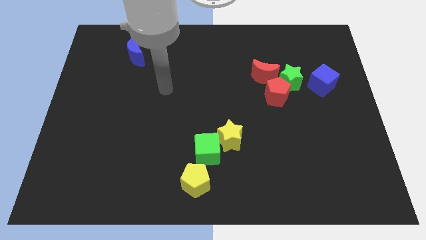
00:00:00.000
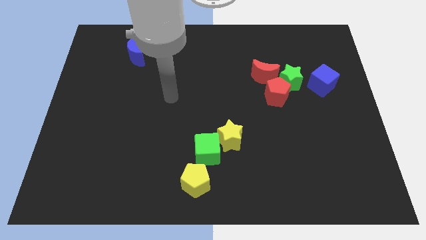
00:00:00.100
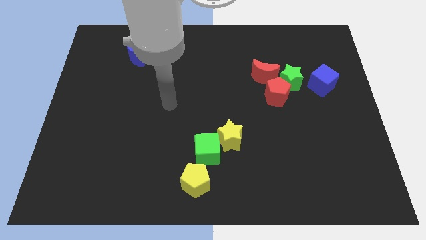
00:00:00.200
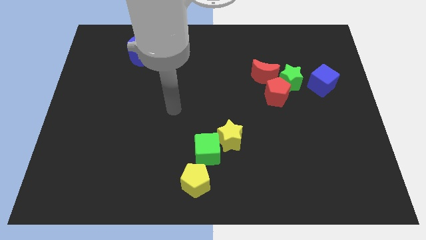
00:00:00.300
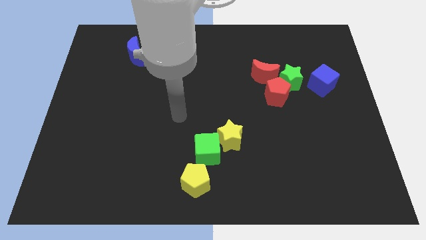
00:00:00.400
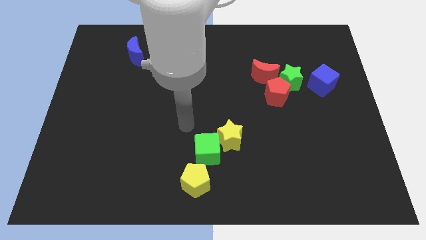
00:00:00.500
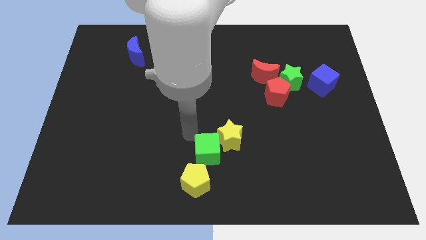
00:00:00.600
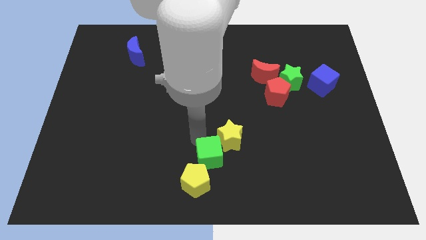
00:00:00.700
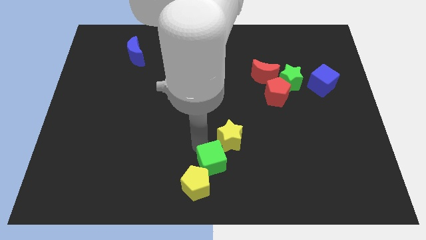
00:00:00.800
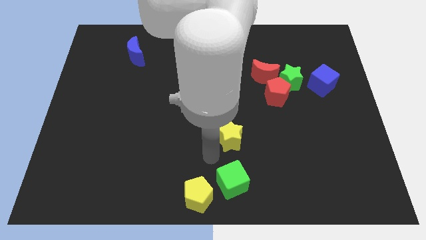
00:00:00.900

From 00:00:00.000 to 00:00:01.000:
move the yellow star away from the green cube

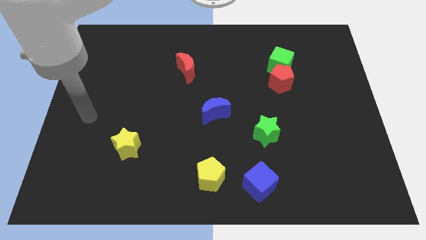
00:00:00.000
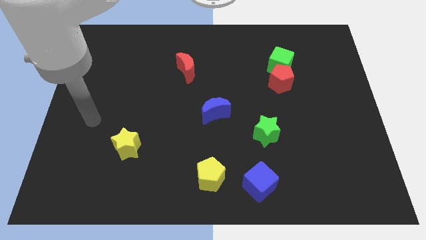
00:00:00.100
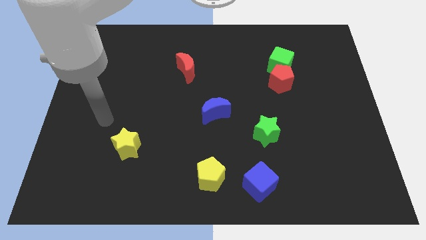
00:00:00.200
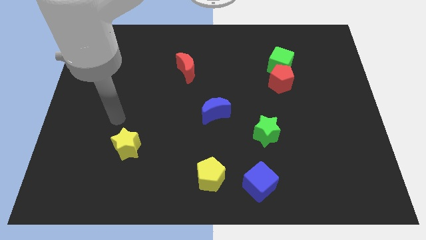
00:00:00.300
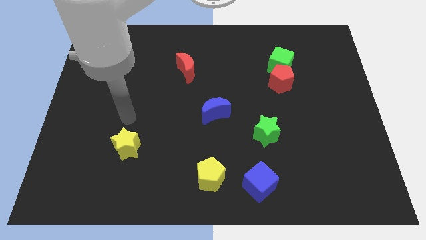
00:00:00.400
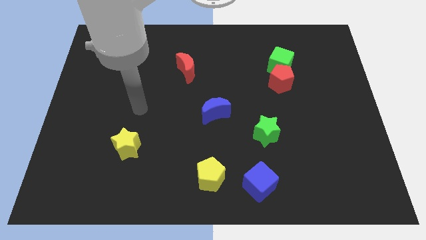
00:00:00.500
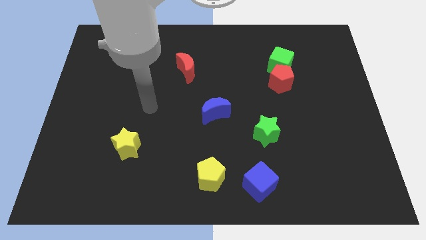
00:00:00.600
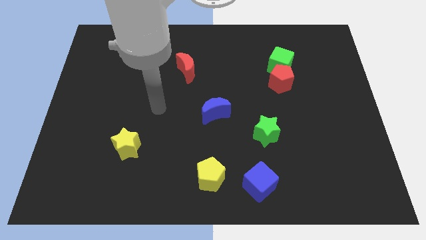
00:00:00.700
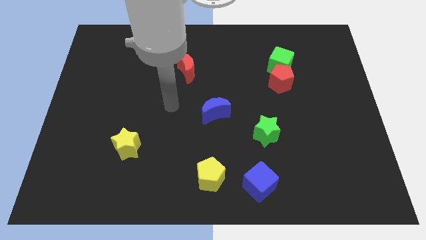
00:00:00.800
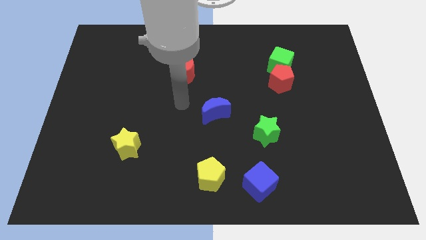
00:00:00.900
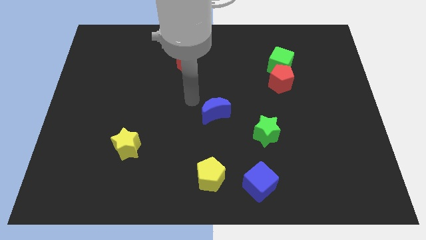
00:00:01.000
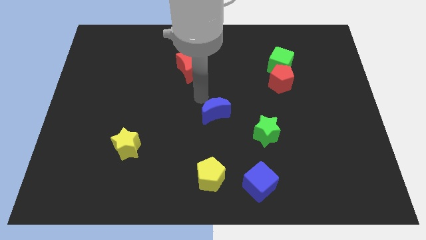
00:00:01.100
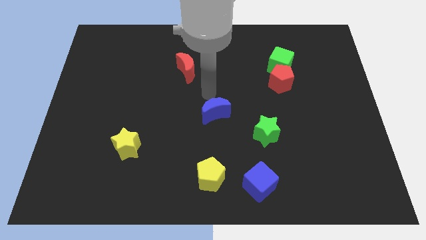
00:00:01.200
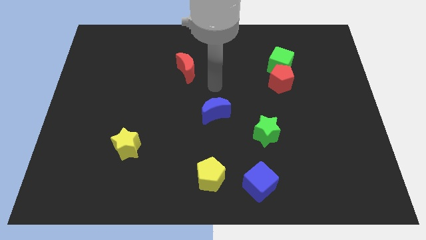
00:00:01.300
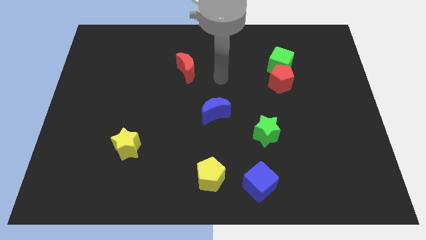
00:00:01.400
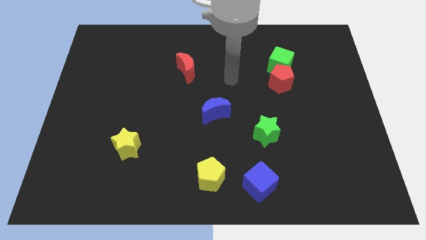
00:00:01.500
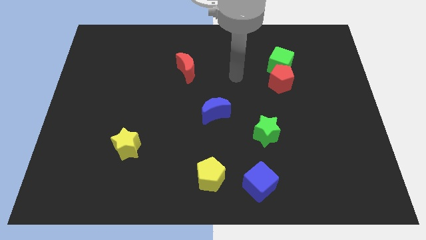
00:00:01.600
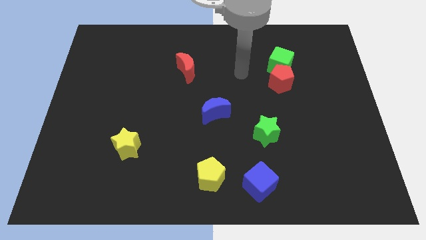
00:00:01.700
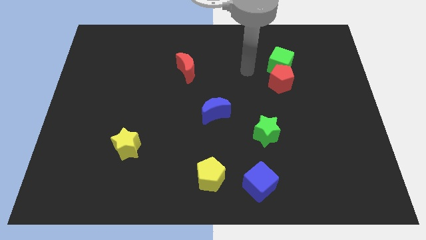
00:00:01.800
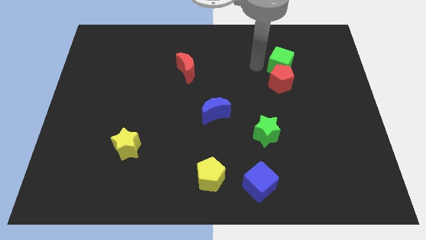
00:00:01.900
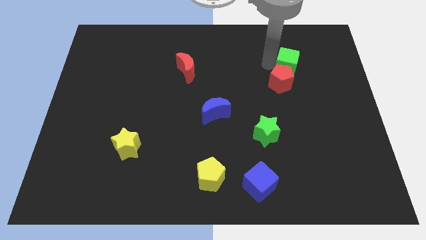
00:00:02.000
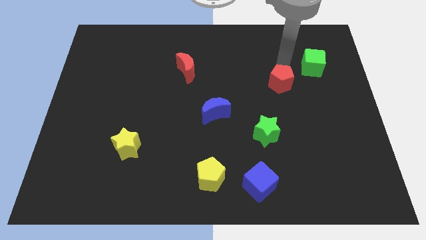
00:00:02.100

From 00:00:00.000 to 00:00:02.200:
pull the red pentagon apart from the green cube

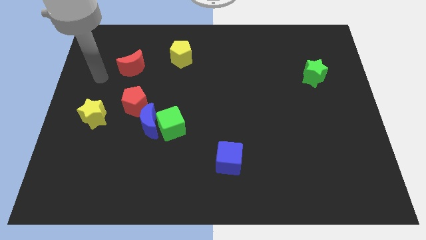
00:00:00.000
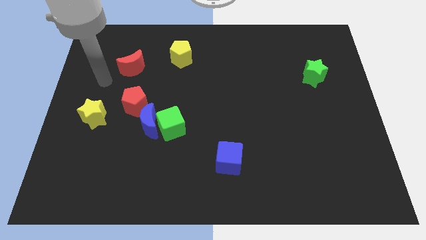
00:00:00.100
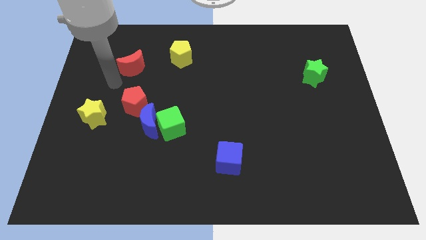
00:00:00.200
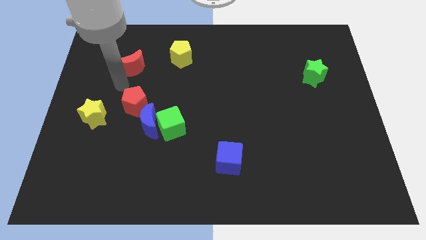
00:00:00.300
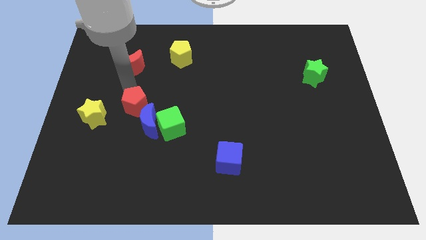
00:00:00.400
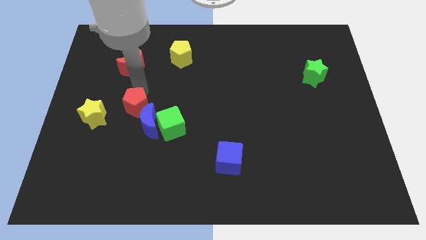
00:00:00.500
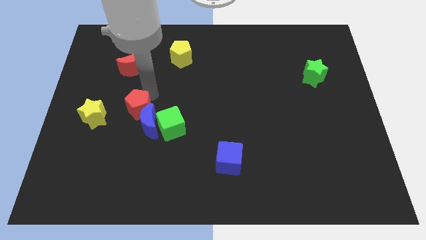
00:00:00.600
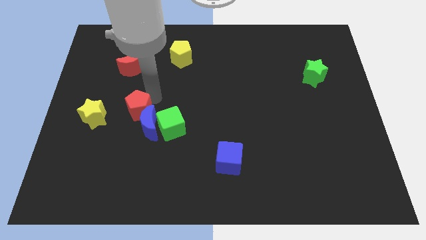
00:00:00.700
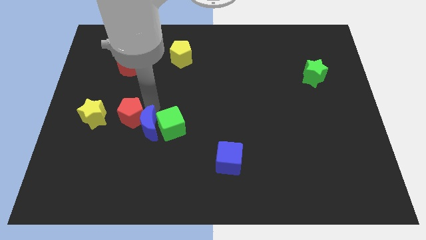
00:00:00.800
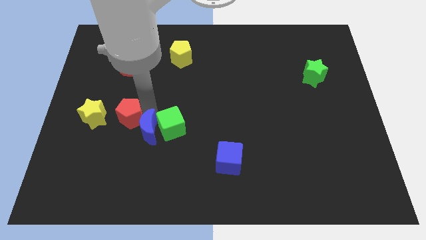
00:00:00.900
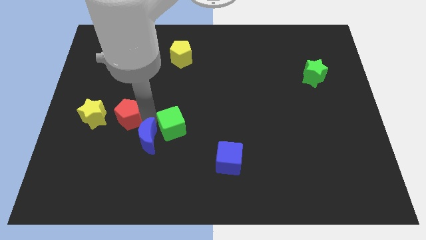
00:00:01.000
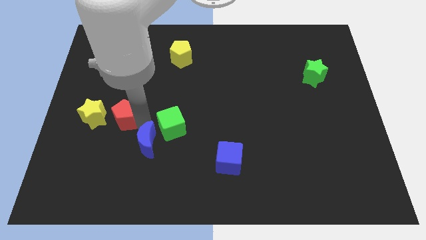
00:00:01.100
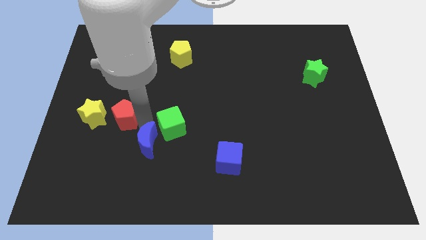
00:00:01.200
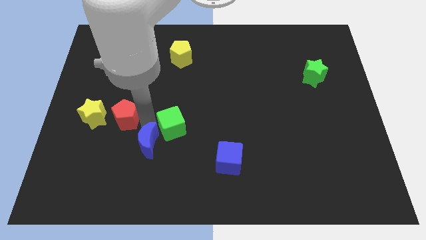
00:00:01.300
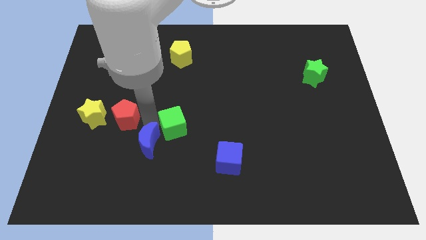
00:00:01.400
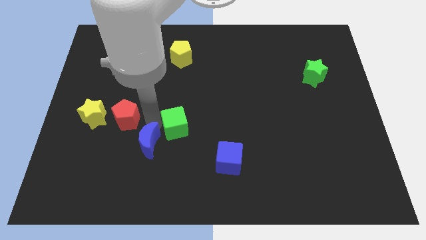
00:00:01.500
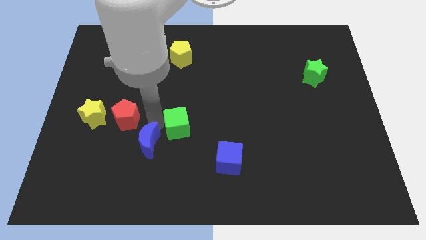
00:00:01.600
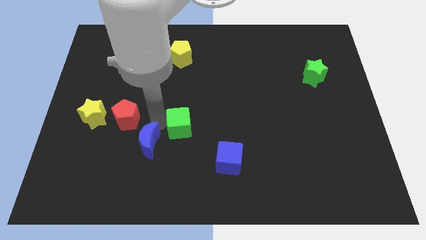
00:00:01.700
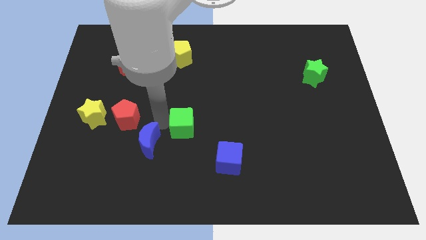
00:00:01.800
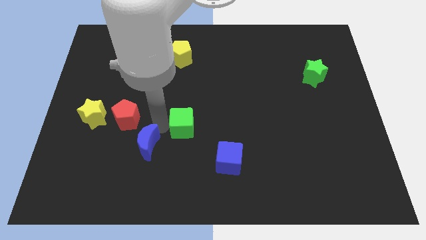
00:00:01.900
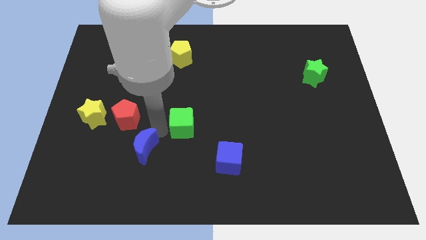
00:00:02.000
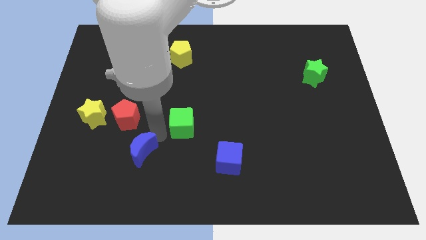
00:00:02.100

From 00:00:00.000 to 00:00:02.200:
separate the green cube from the blue moon

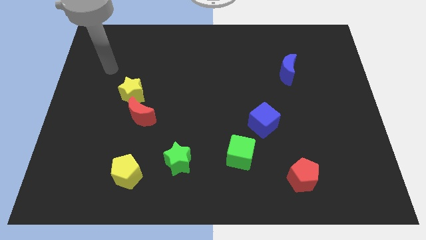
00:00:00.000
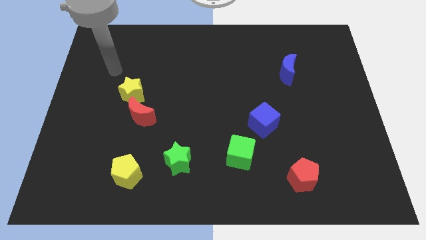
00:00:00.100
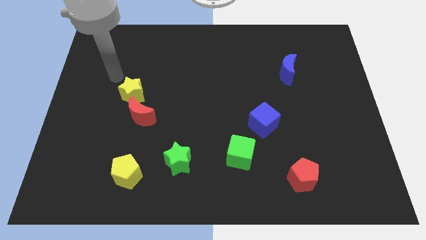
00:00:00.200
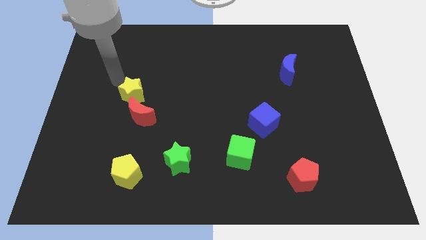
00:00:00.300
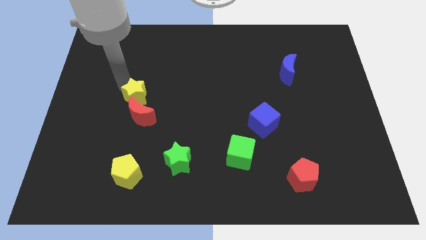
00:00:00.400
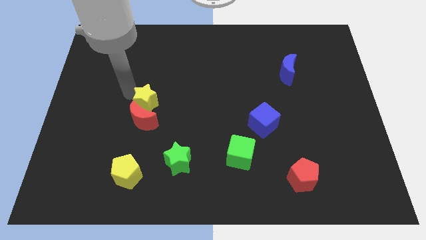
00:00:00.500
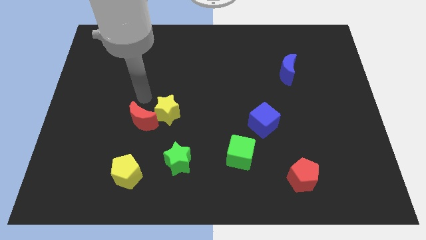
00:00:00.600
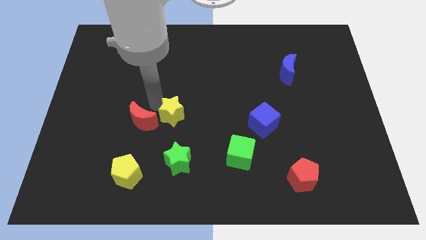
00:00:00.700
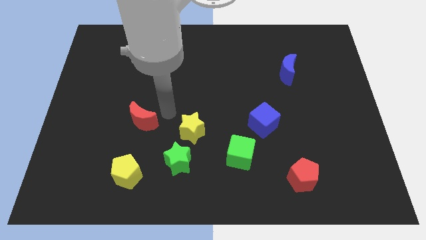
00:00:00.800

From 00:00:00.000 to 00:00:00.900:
separate the red moon from the yellow star

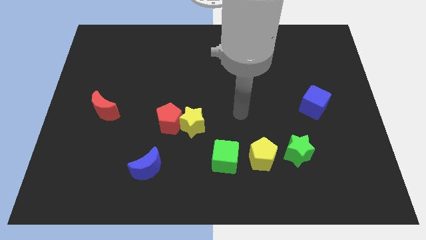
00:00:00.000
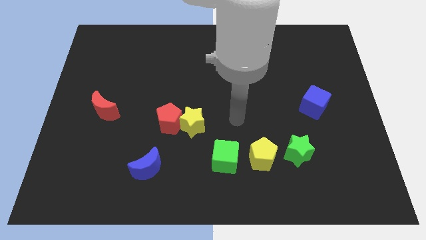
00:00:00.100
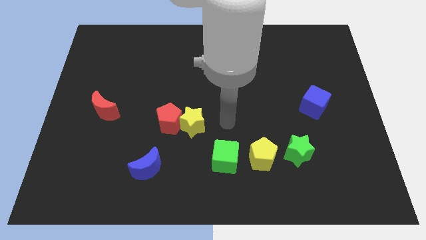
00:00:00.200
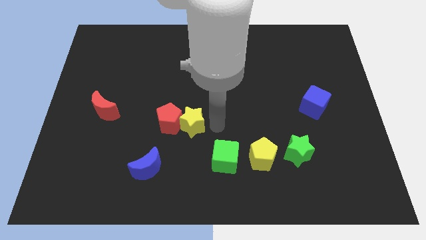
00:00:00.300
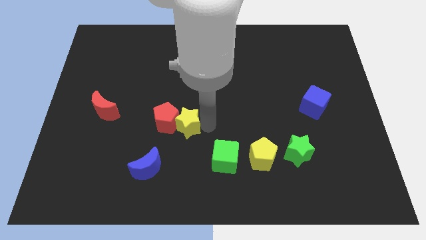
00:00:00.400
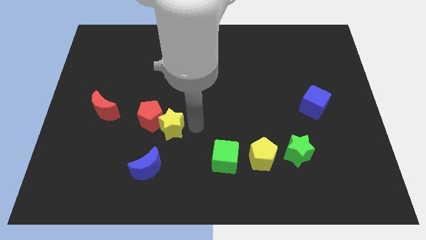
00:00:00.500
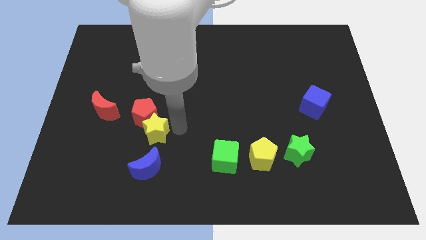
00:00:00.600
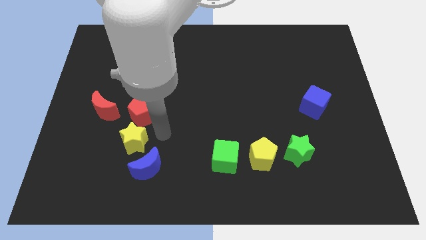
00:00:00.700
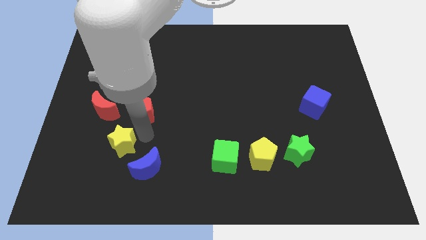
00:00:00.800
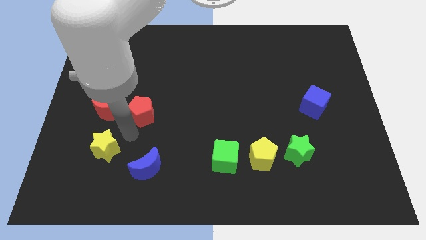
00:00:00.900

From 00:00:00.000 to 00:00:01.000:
separate the red pentagon from the yellow star

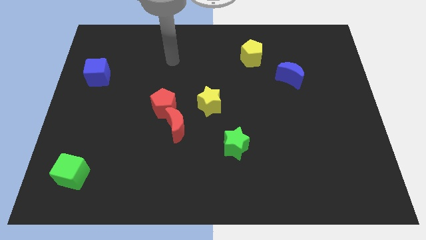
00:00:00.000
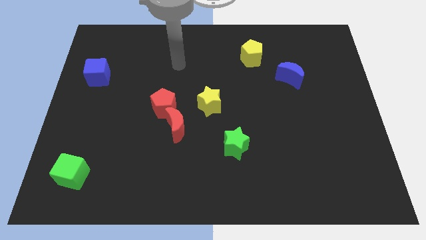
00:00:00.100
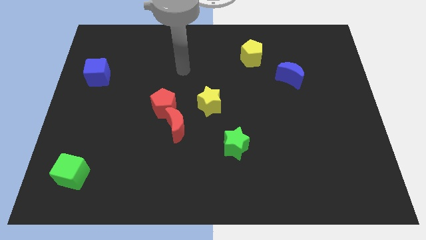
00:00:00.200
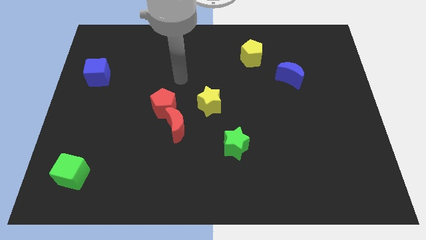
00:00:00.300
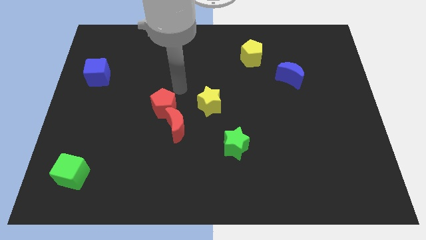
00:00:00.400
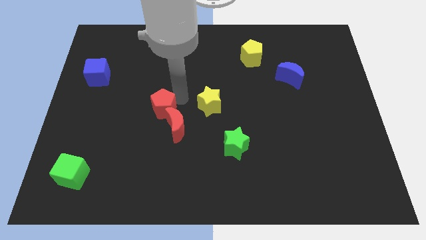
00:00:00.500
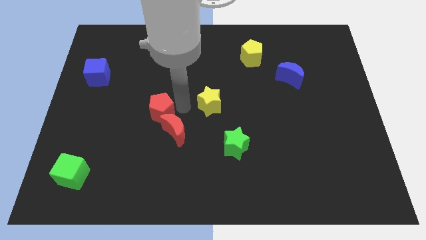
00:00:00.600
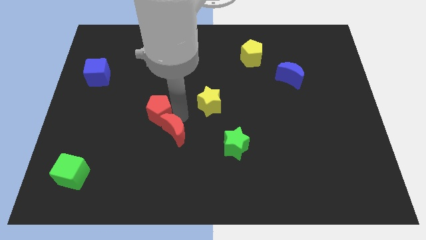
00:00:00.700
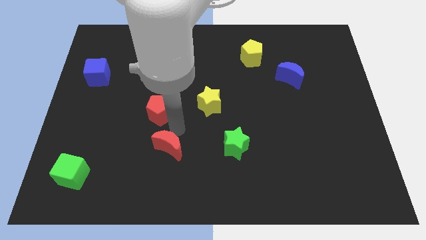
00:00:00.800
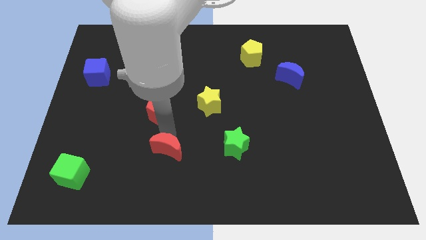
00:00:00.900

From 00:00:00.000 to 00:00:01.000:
pull the red pentagon apart from the red moon

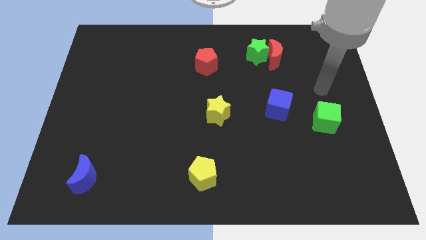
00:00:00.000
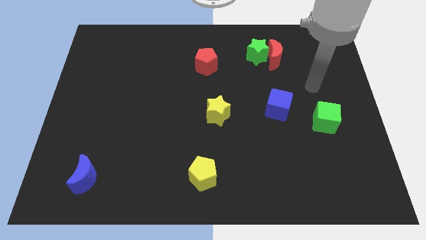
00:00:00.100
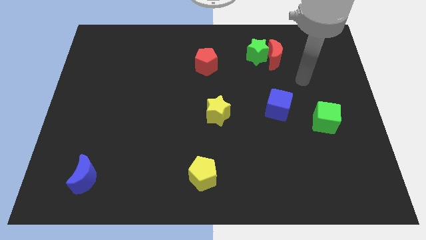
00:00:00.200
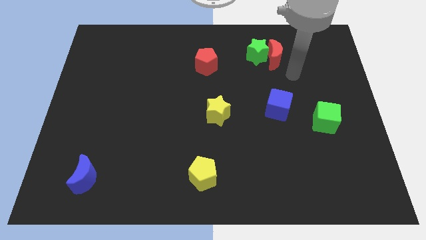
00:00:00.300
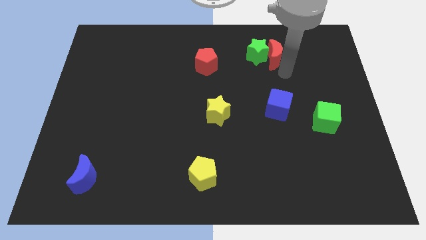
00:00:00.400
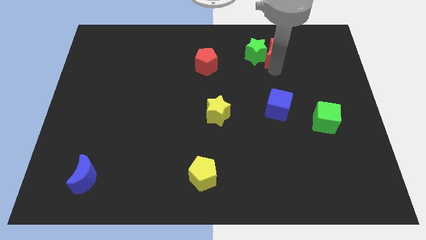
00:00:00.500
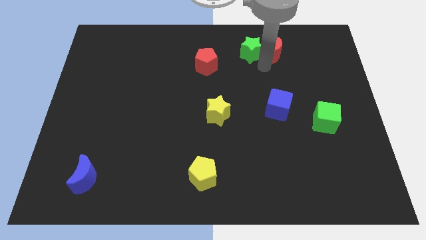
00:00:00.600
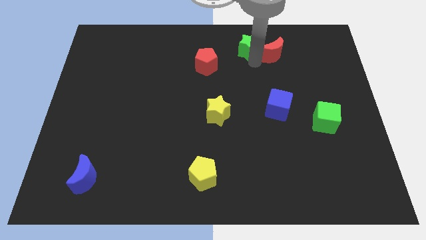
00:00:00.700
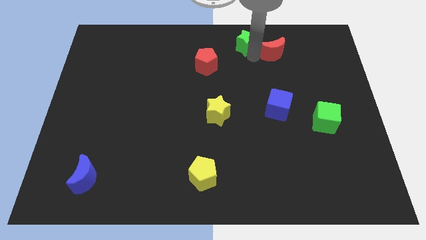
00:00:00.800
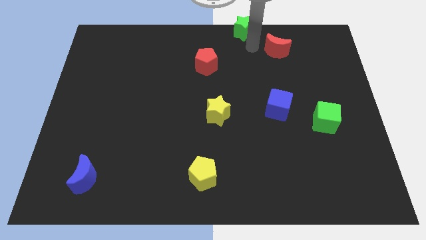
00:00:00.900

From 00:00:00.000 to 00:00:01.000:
pull the red moon apart from the green star
